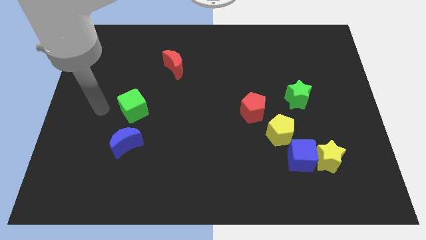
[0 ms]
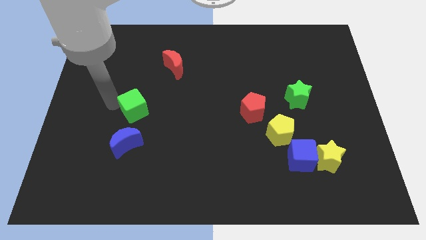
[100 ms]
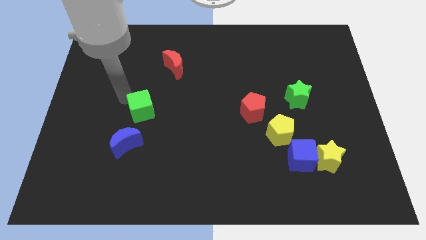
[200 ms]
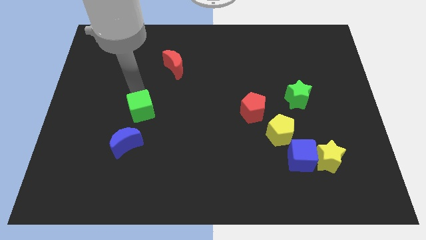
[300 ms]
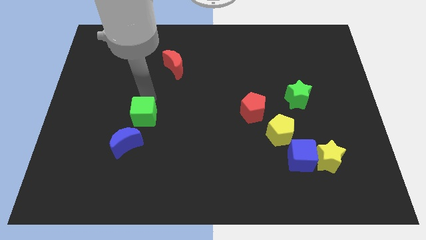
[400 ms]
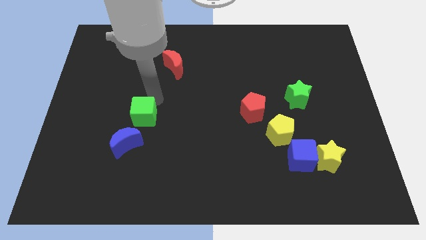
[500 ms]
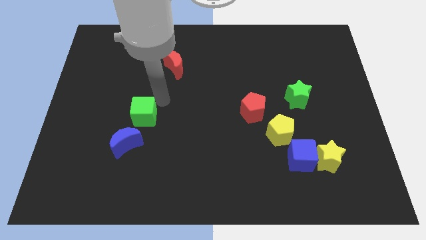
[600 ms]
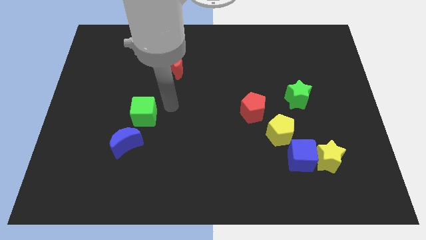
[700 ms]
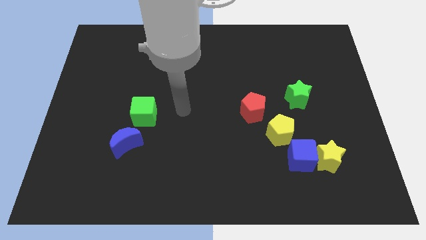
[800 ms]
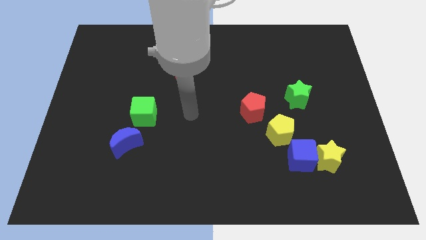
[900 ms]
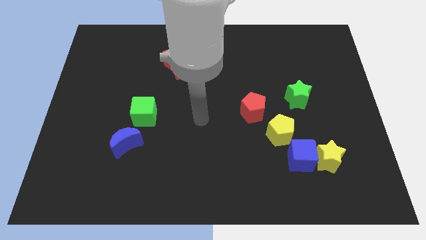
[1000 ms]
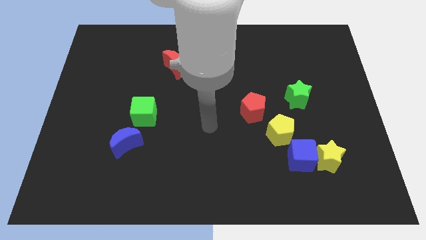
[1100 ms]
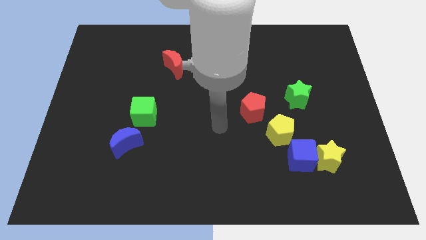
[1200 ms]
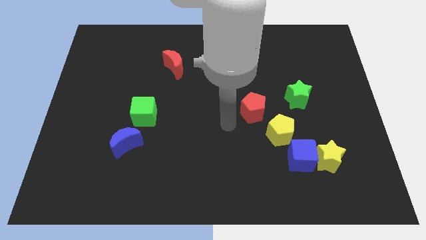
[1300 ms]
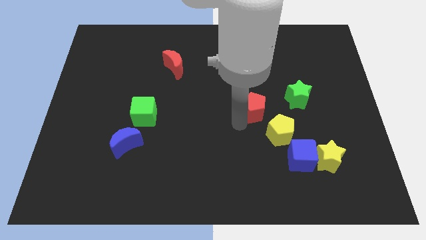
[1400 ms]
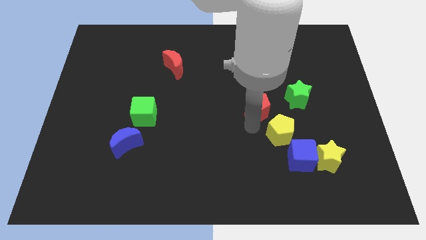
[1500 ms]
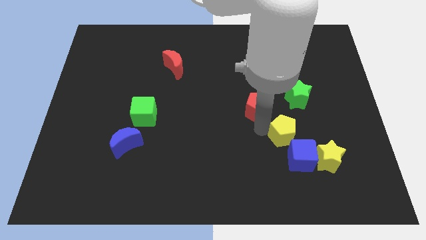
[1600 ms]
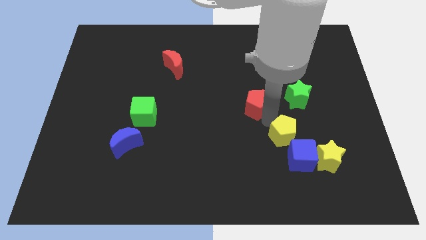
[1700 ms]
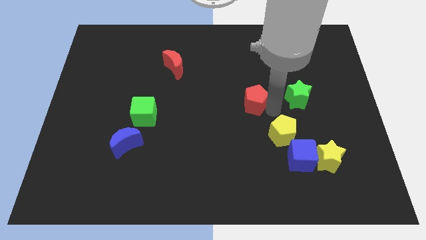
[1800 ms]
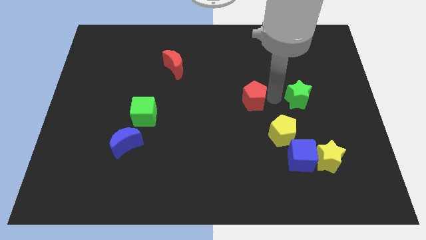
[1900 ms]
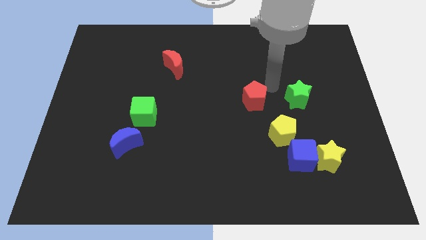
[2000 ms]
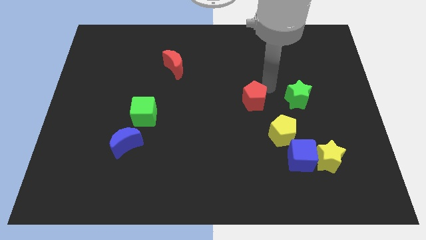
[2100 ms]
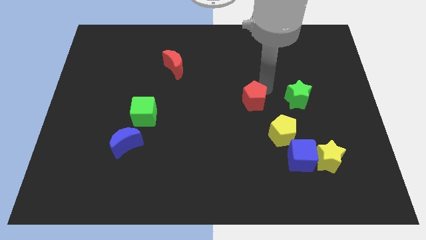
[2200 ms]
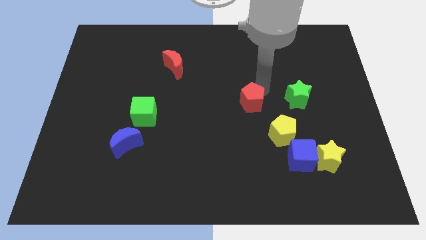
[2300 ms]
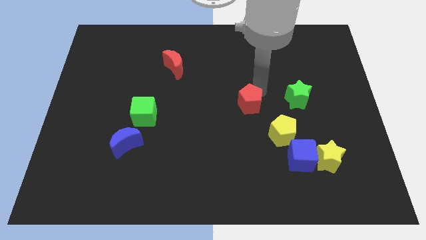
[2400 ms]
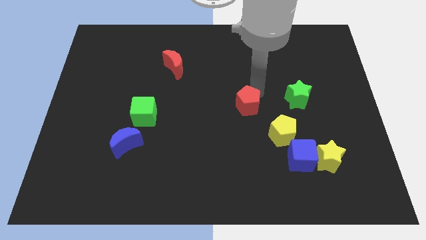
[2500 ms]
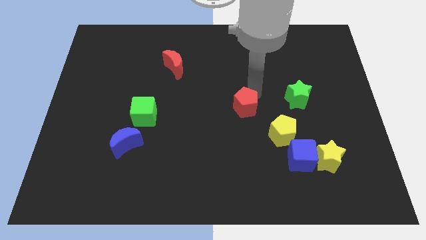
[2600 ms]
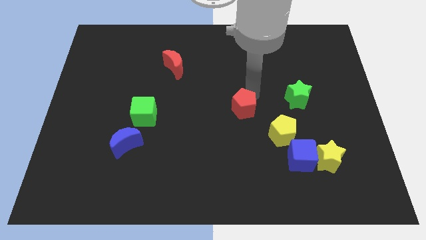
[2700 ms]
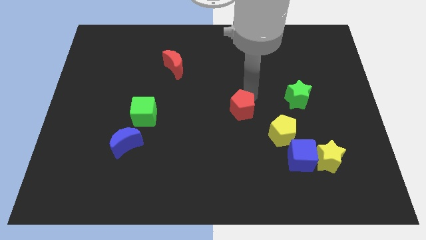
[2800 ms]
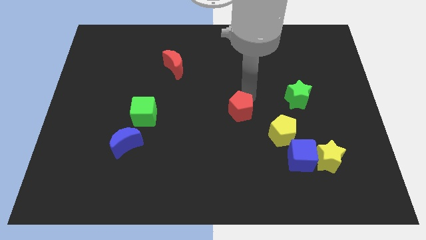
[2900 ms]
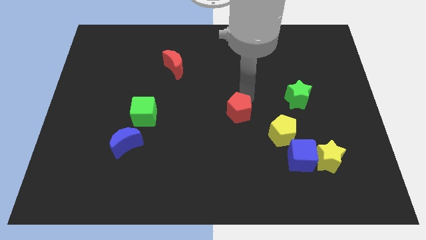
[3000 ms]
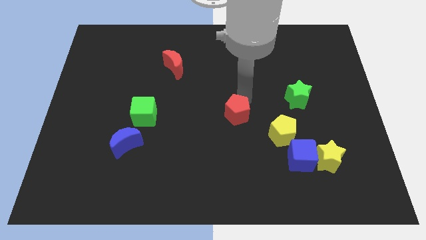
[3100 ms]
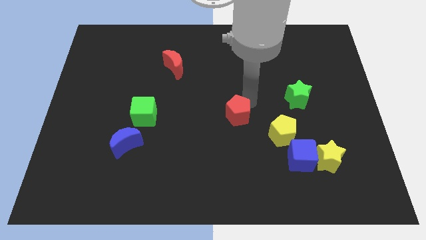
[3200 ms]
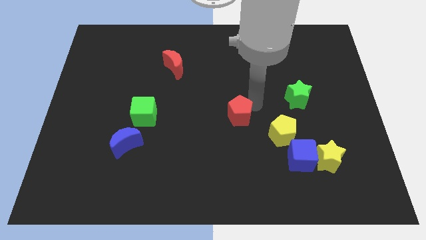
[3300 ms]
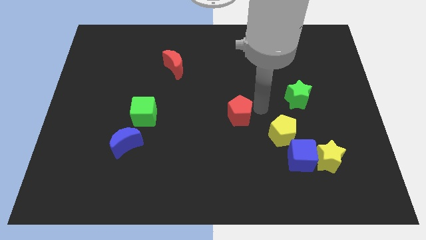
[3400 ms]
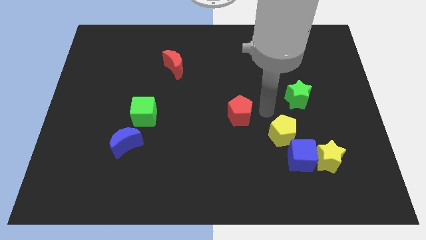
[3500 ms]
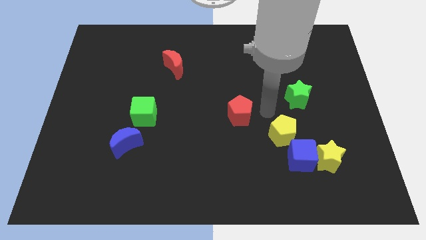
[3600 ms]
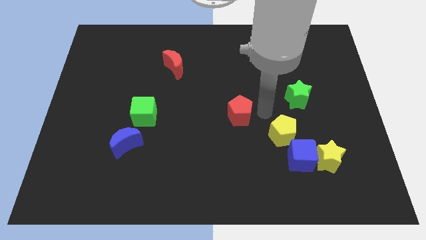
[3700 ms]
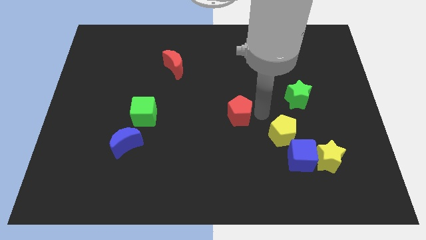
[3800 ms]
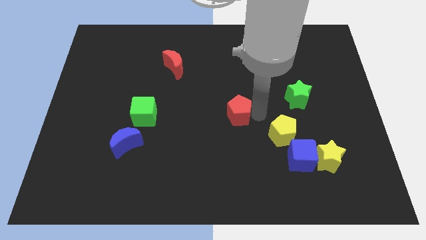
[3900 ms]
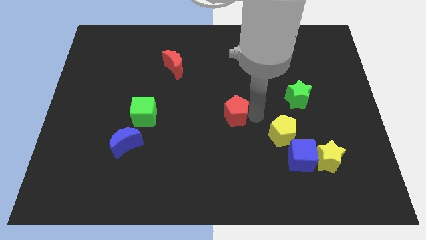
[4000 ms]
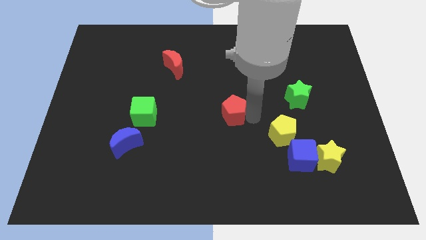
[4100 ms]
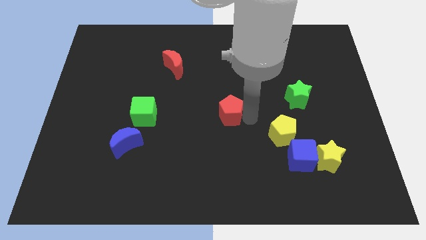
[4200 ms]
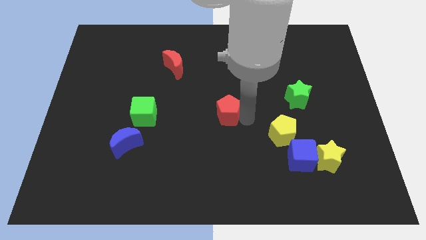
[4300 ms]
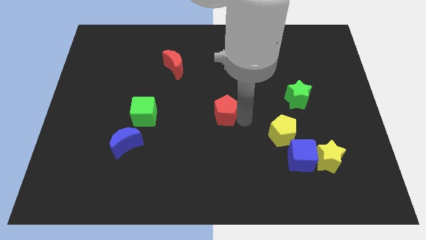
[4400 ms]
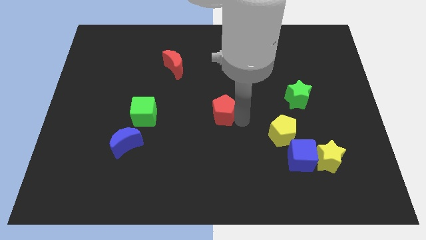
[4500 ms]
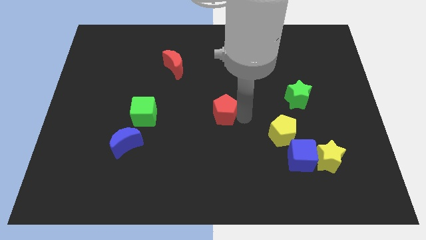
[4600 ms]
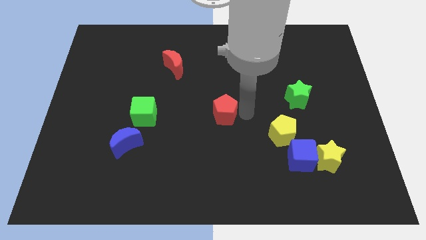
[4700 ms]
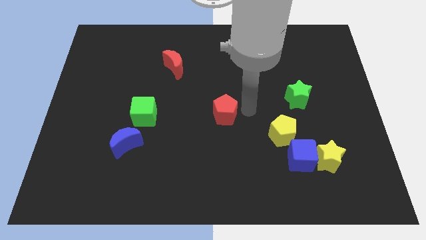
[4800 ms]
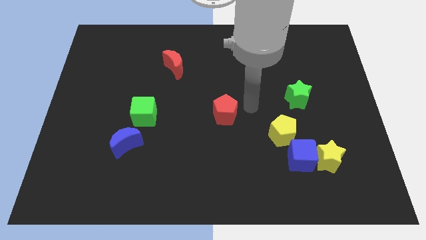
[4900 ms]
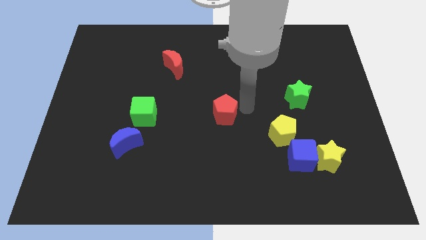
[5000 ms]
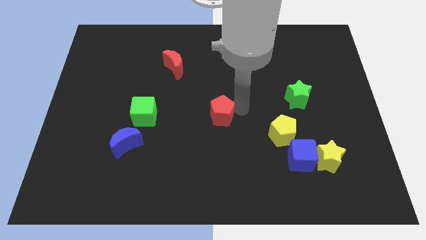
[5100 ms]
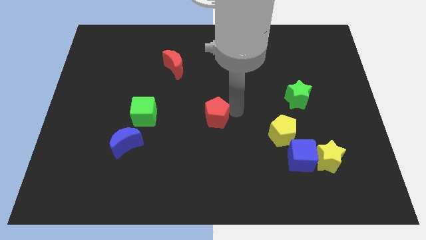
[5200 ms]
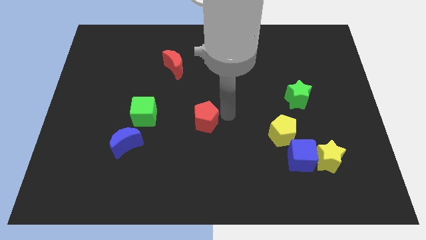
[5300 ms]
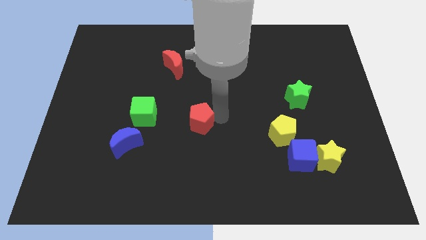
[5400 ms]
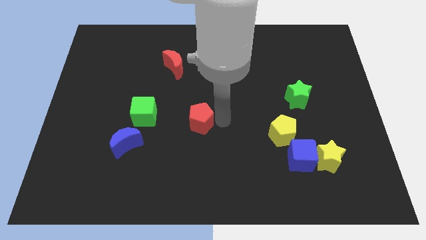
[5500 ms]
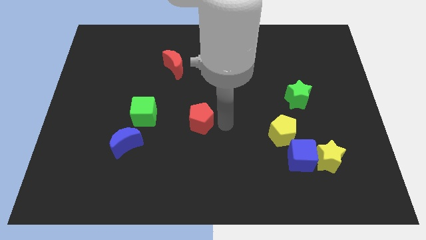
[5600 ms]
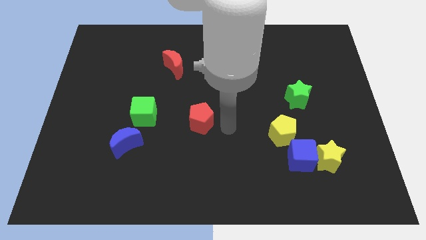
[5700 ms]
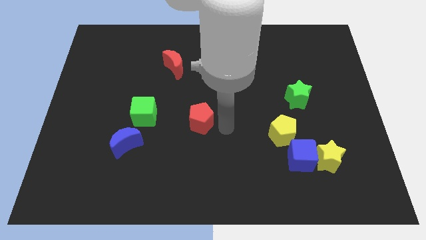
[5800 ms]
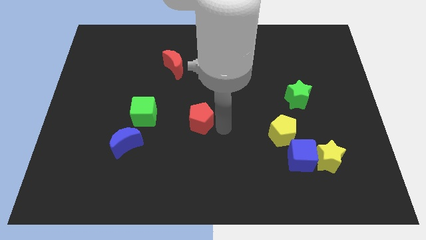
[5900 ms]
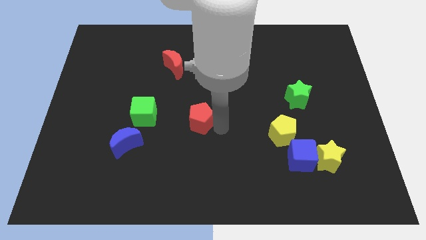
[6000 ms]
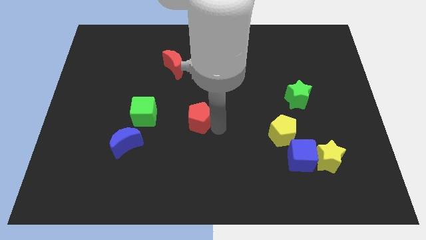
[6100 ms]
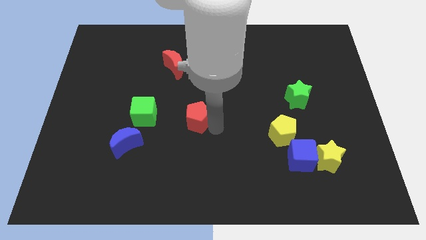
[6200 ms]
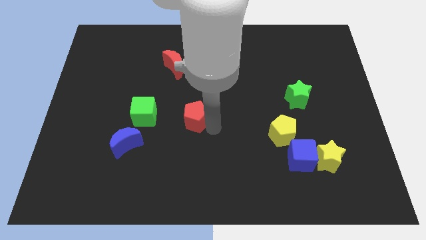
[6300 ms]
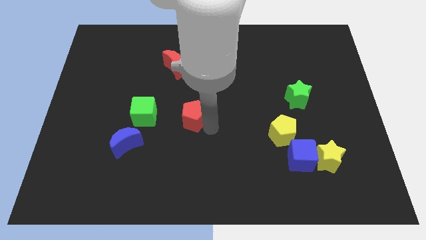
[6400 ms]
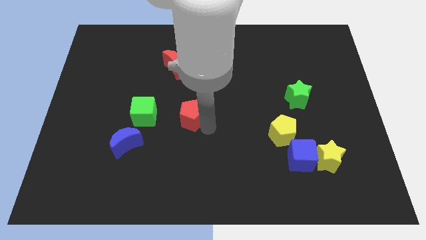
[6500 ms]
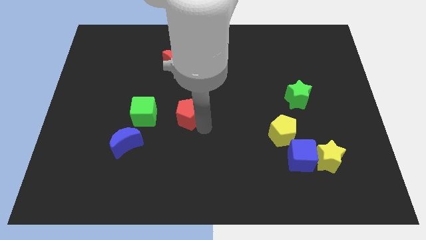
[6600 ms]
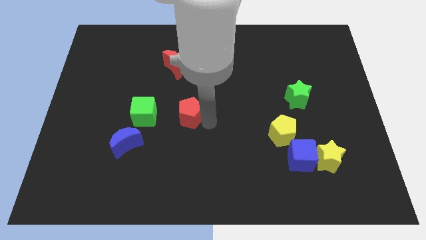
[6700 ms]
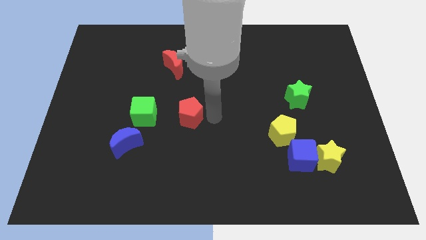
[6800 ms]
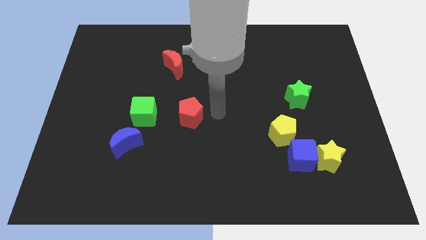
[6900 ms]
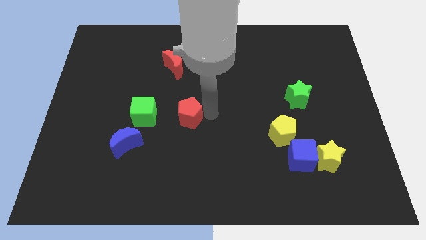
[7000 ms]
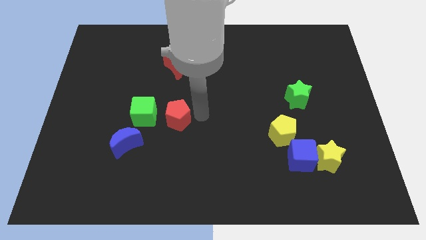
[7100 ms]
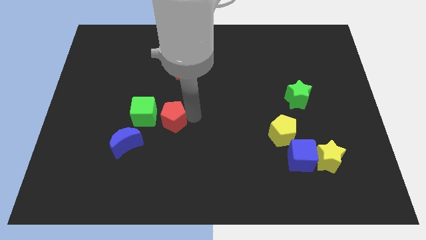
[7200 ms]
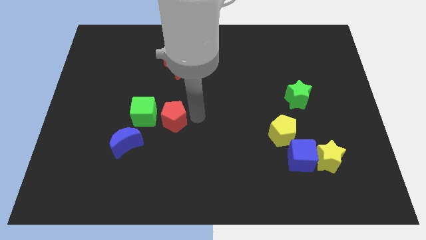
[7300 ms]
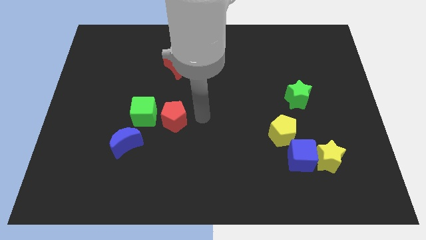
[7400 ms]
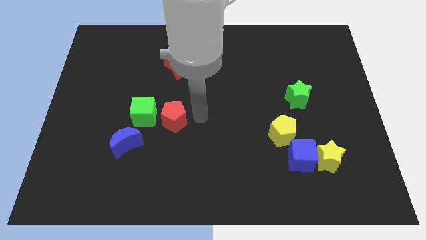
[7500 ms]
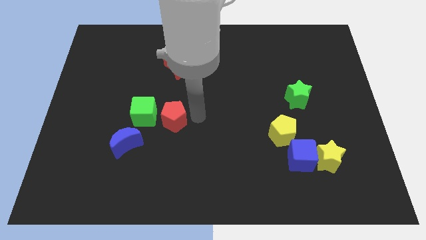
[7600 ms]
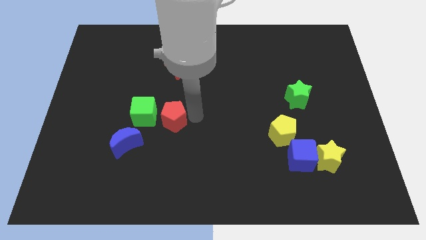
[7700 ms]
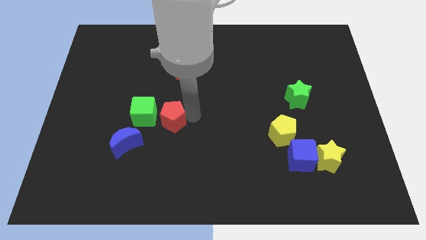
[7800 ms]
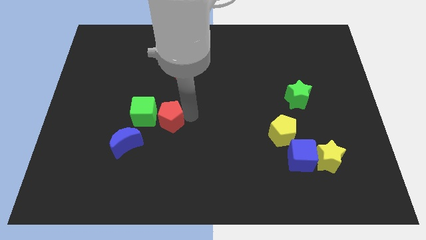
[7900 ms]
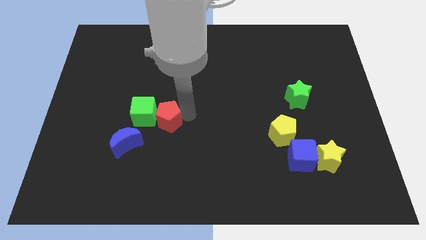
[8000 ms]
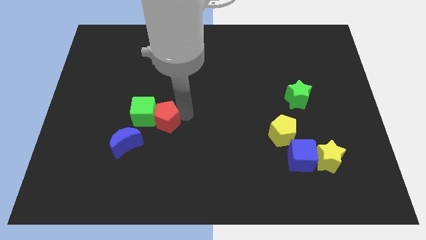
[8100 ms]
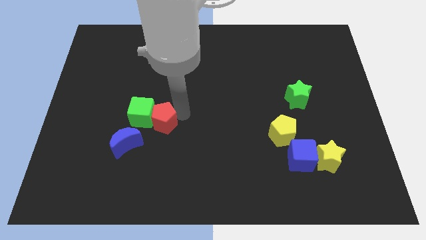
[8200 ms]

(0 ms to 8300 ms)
slide the red pentagon left
